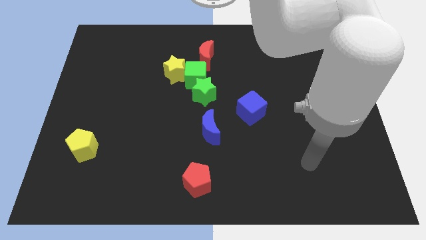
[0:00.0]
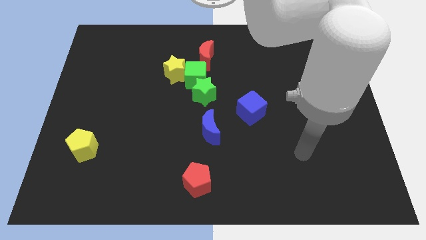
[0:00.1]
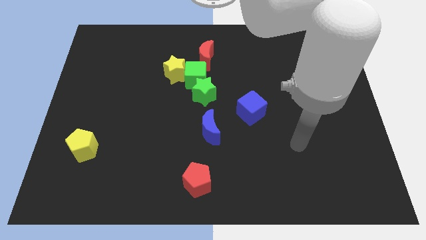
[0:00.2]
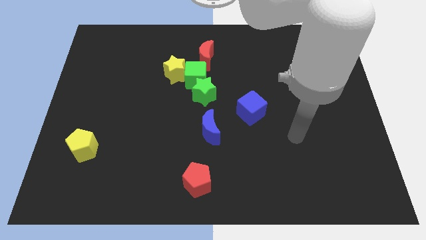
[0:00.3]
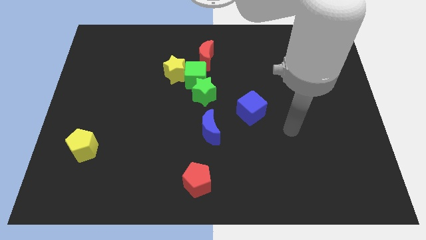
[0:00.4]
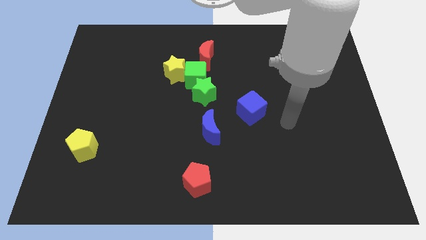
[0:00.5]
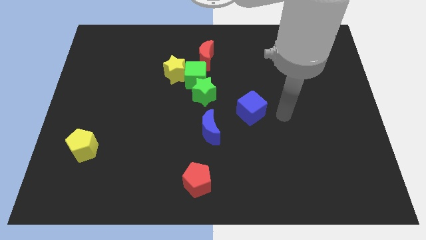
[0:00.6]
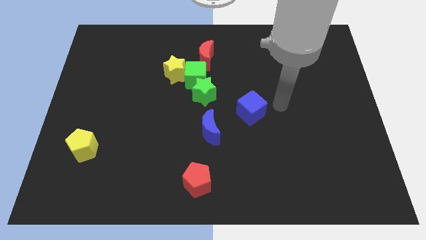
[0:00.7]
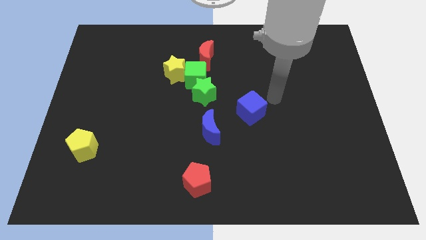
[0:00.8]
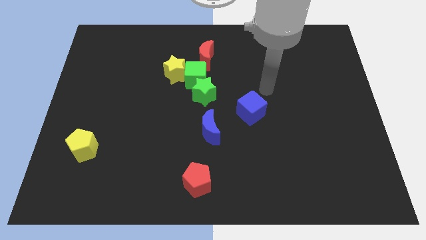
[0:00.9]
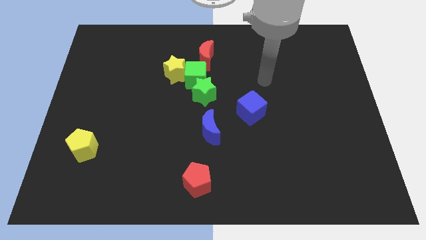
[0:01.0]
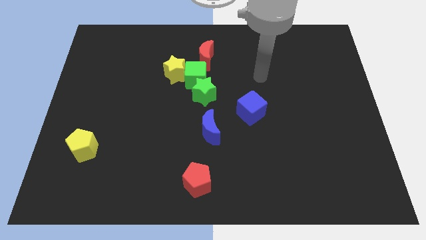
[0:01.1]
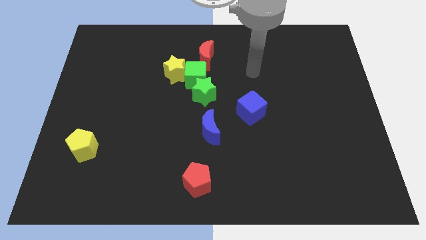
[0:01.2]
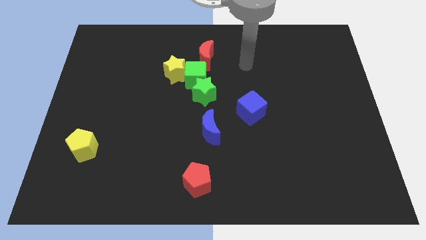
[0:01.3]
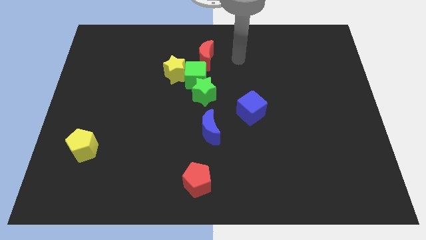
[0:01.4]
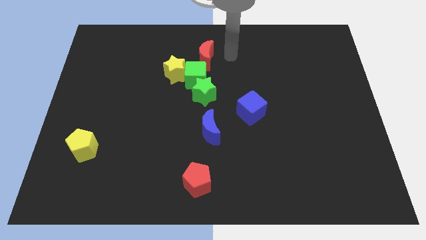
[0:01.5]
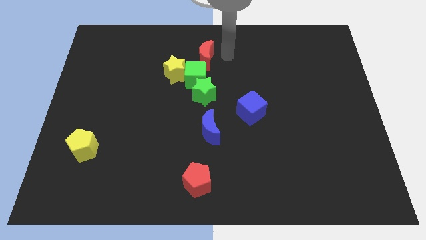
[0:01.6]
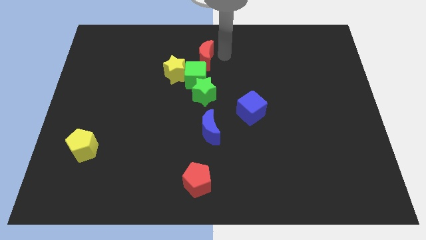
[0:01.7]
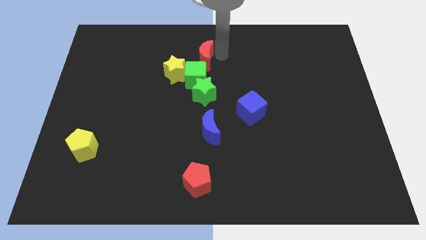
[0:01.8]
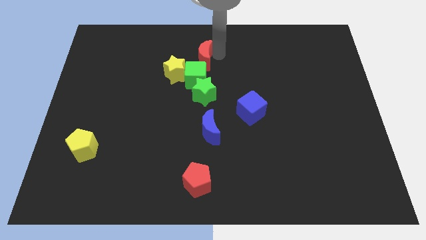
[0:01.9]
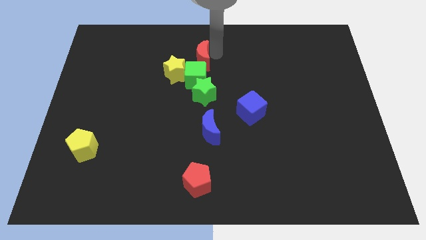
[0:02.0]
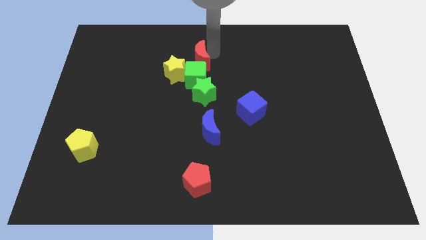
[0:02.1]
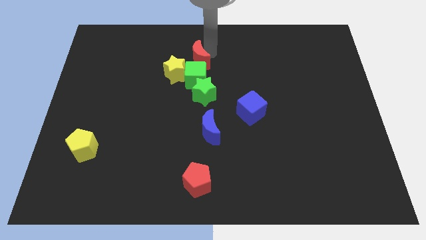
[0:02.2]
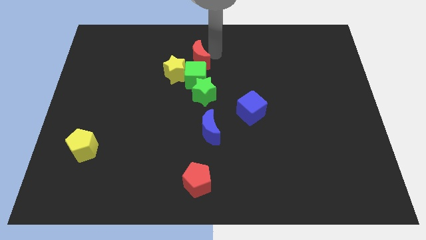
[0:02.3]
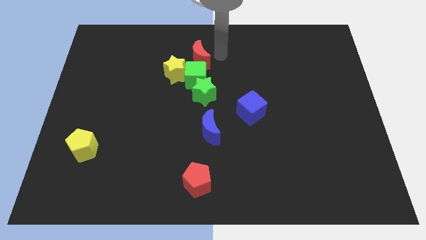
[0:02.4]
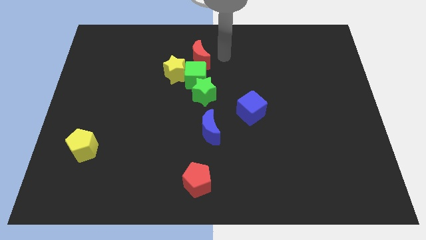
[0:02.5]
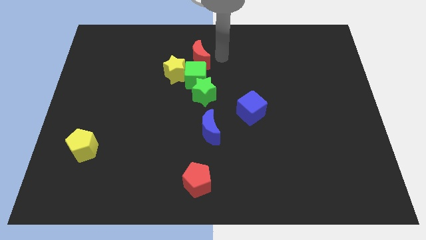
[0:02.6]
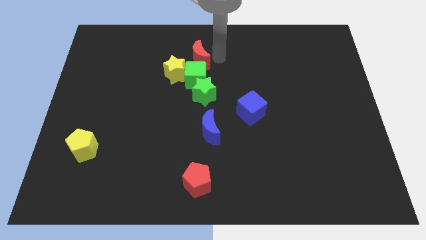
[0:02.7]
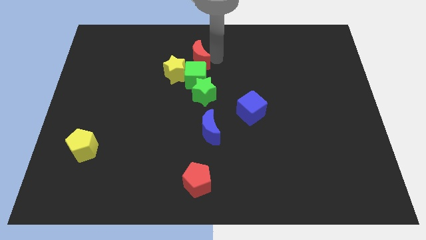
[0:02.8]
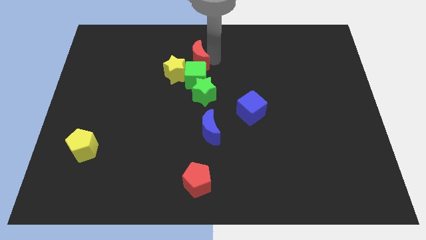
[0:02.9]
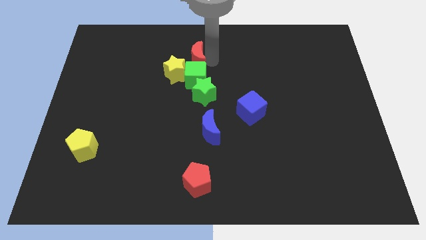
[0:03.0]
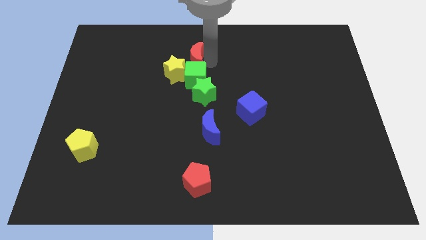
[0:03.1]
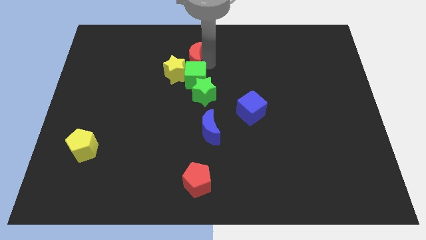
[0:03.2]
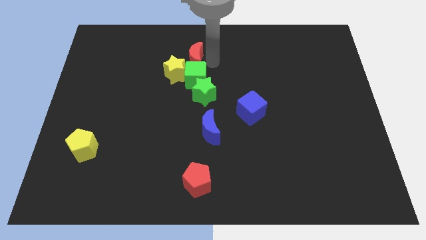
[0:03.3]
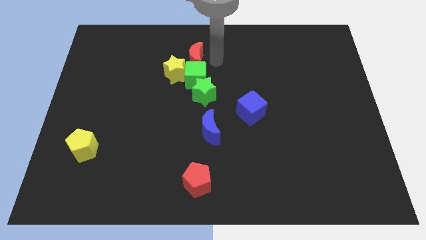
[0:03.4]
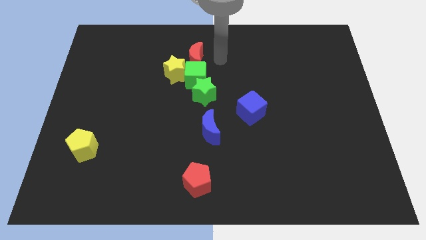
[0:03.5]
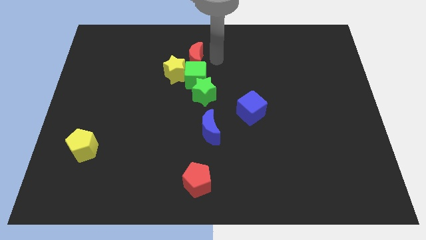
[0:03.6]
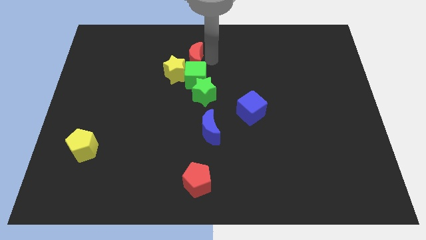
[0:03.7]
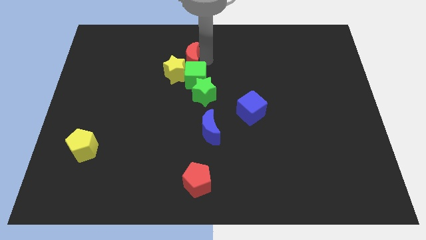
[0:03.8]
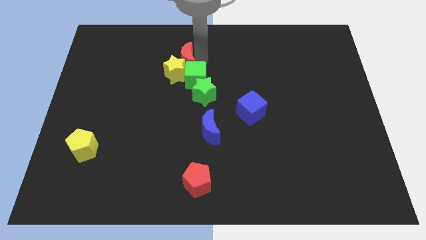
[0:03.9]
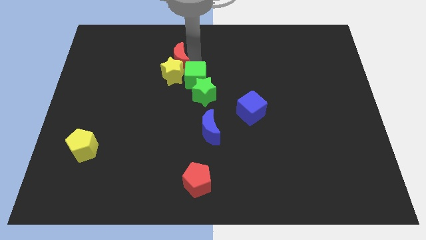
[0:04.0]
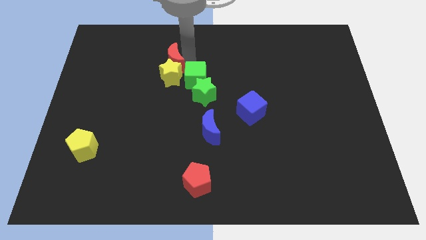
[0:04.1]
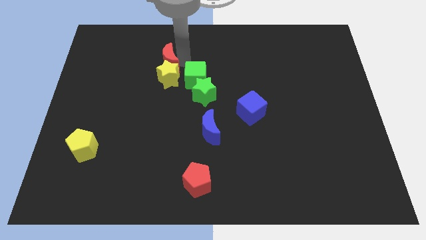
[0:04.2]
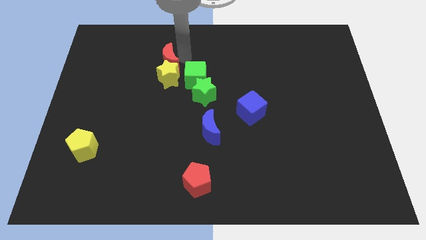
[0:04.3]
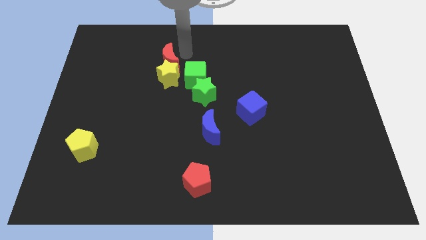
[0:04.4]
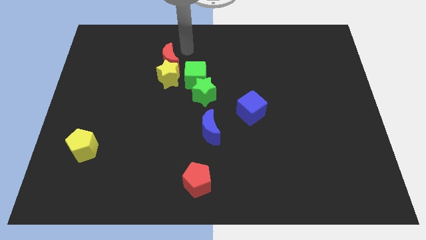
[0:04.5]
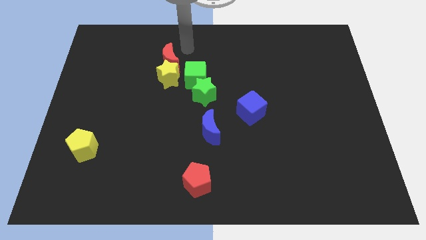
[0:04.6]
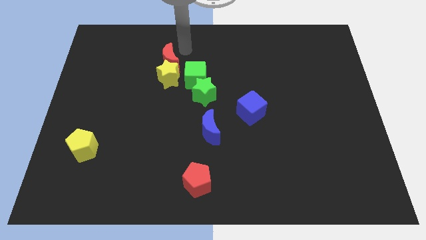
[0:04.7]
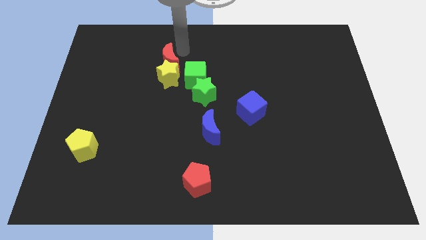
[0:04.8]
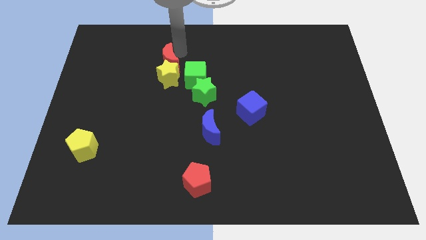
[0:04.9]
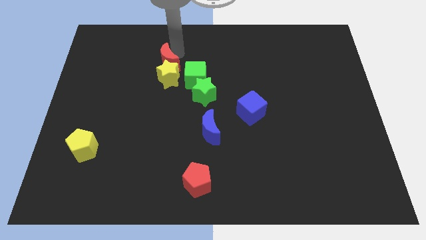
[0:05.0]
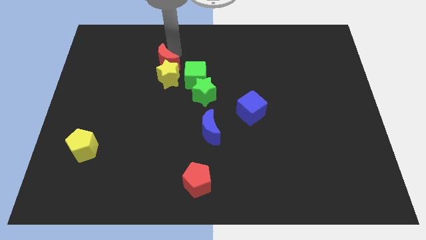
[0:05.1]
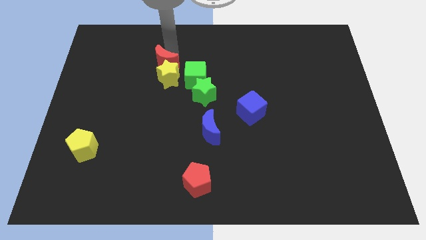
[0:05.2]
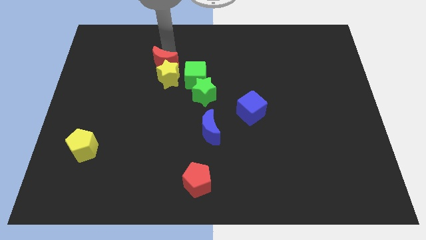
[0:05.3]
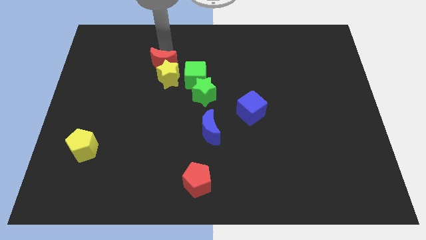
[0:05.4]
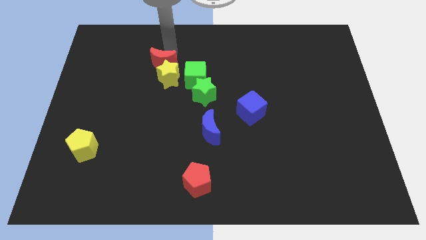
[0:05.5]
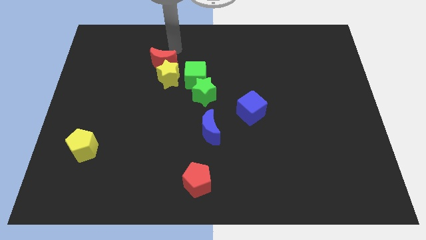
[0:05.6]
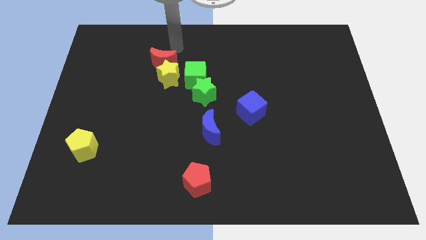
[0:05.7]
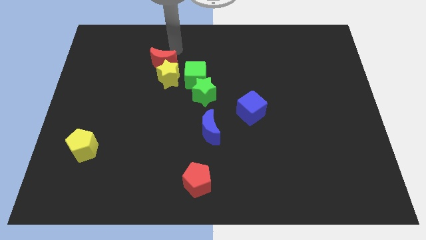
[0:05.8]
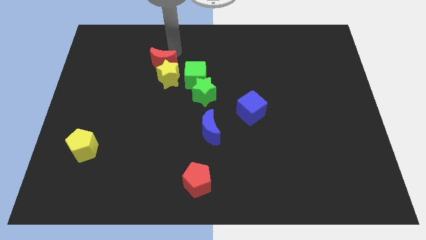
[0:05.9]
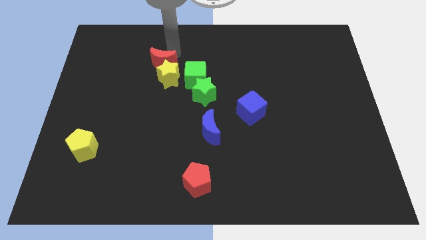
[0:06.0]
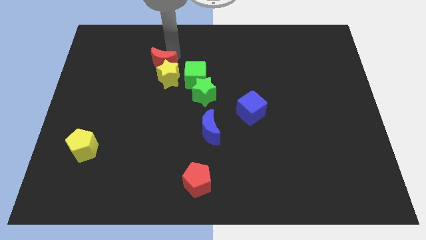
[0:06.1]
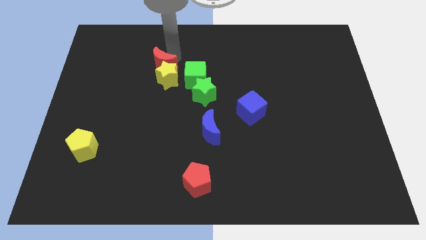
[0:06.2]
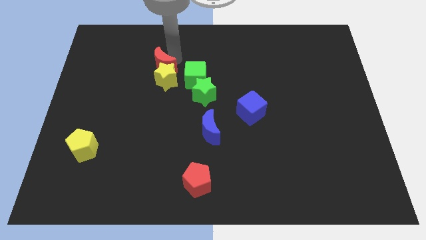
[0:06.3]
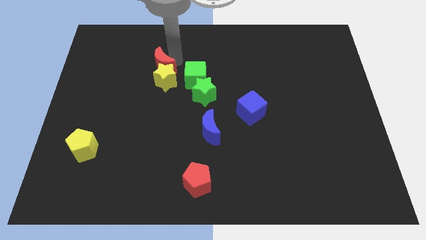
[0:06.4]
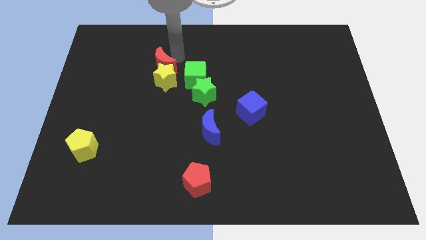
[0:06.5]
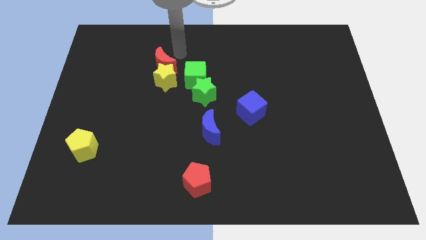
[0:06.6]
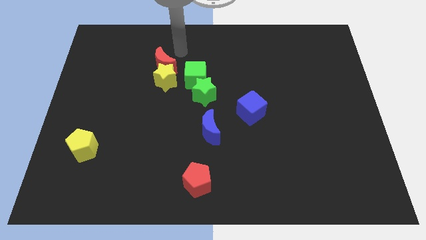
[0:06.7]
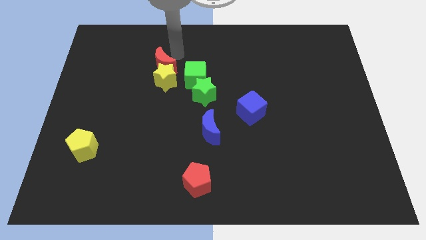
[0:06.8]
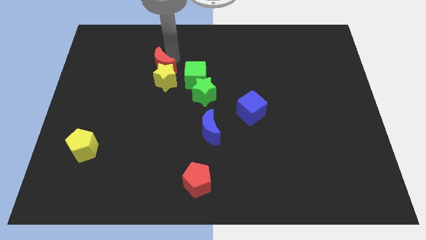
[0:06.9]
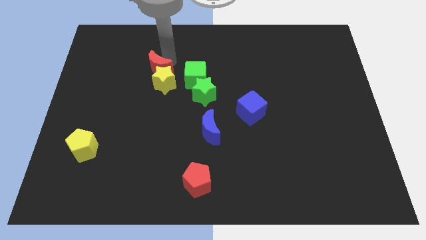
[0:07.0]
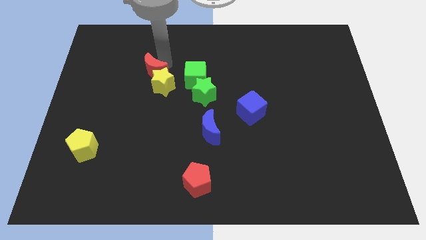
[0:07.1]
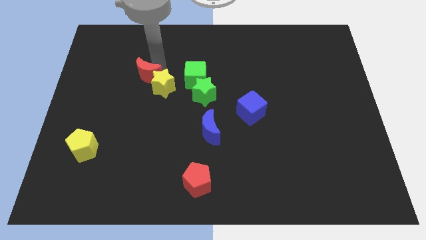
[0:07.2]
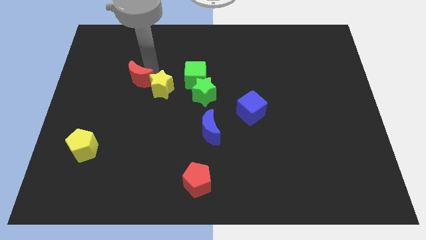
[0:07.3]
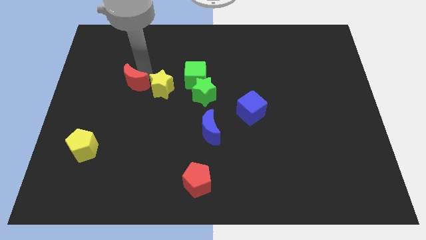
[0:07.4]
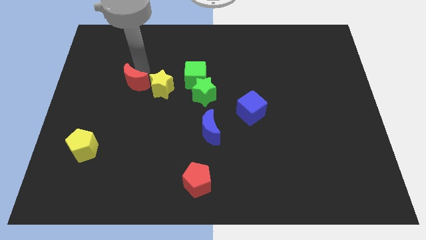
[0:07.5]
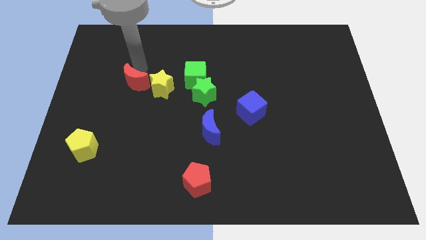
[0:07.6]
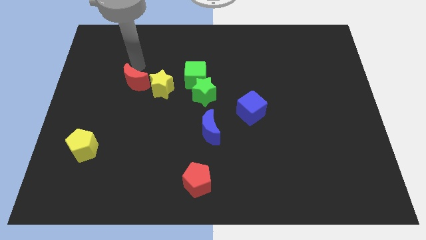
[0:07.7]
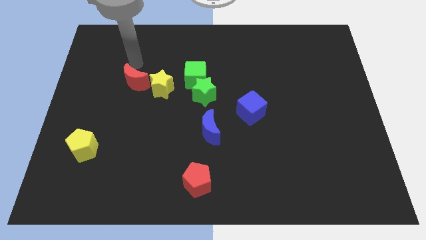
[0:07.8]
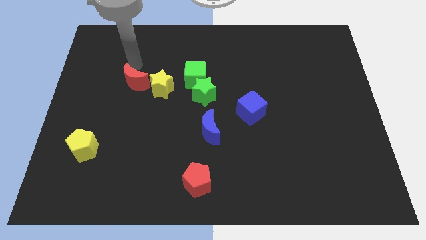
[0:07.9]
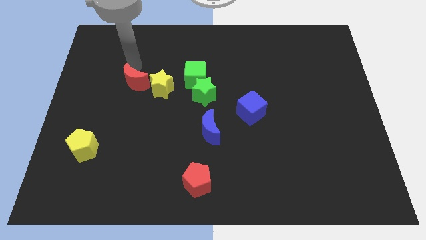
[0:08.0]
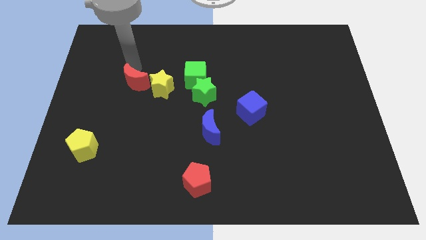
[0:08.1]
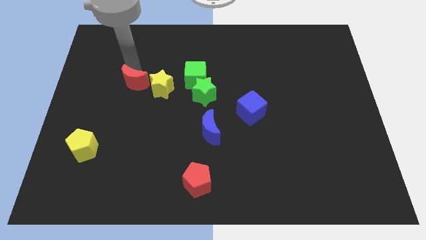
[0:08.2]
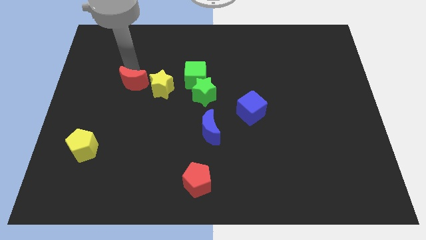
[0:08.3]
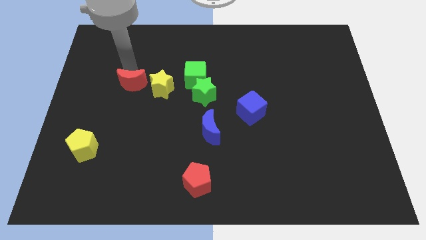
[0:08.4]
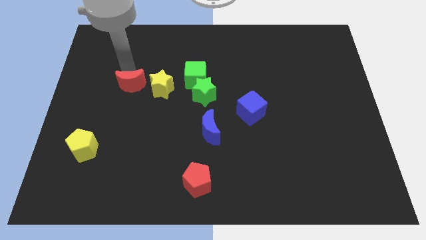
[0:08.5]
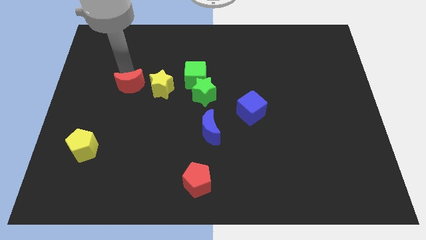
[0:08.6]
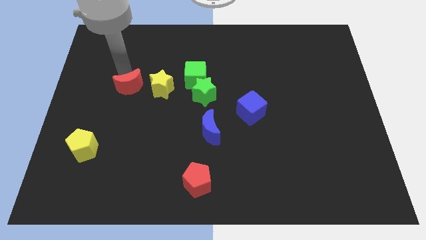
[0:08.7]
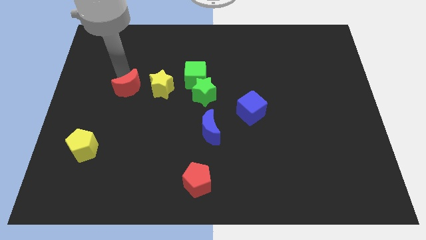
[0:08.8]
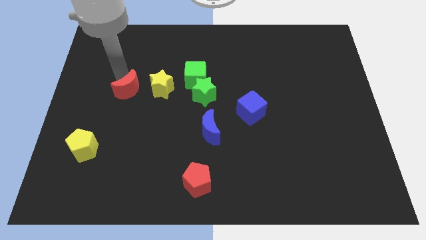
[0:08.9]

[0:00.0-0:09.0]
push the red moon downwards and then to the left
